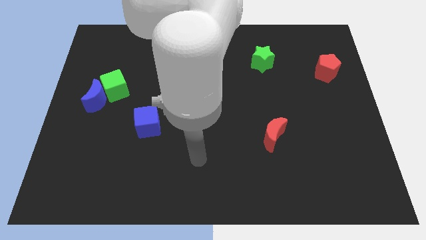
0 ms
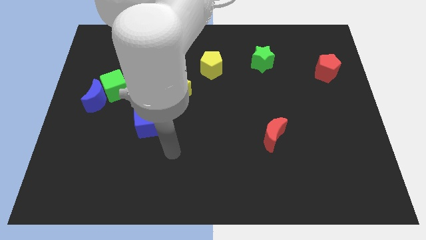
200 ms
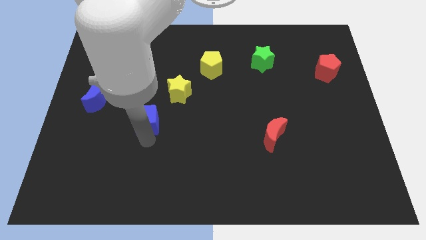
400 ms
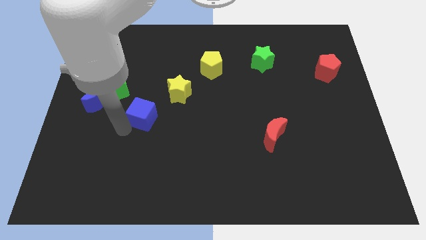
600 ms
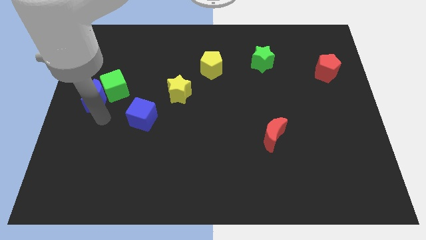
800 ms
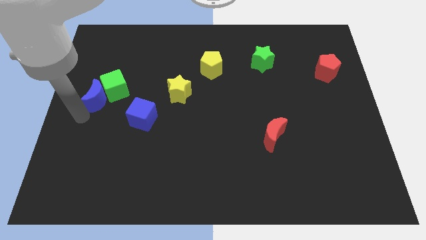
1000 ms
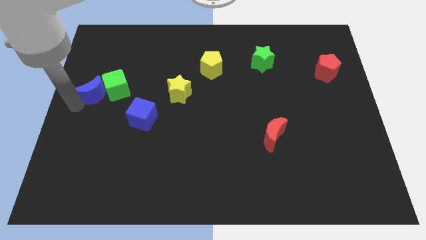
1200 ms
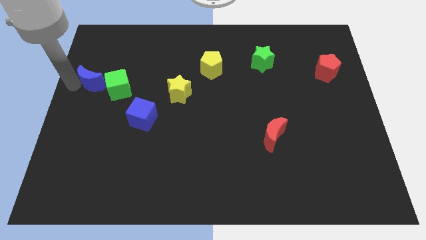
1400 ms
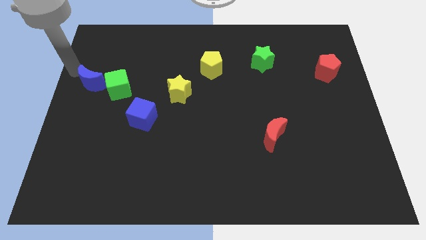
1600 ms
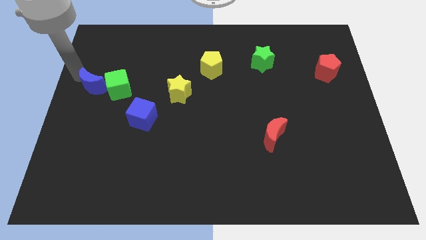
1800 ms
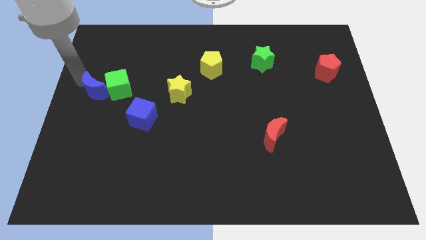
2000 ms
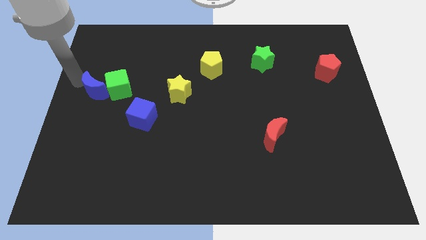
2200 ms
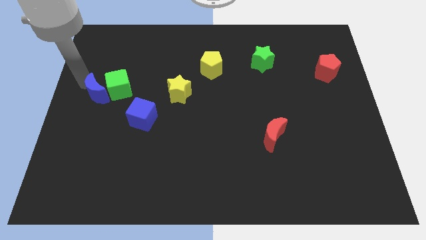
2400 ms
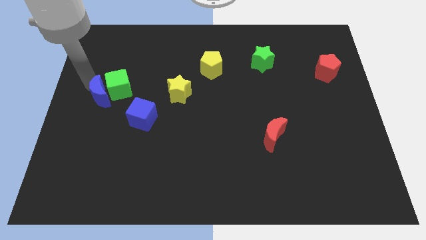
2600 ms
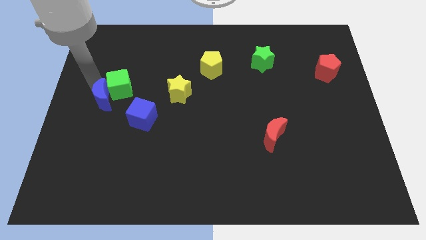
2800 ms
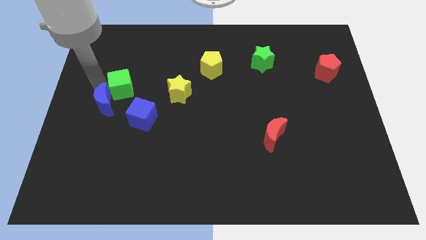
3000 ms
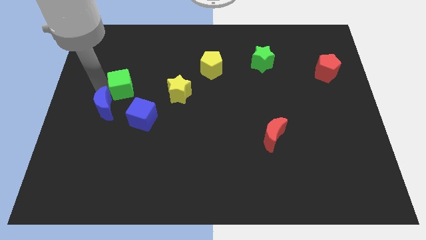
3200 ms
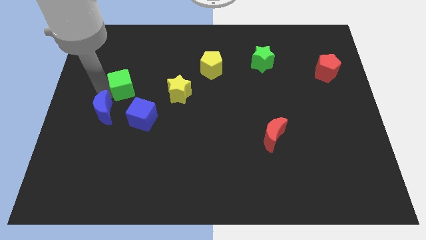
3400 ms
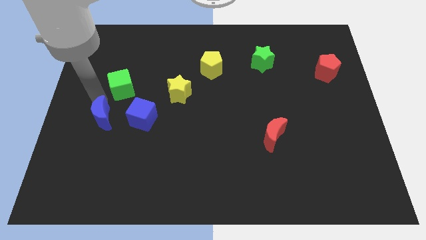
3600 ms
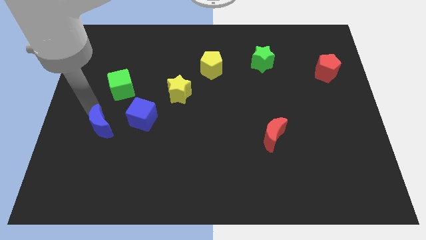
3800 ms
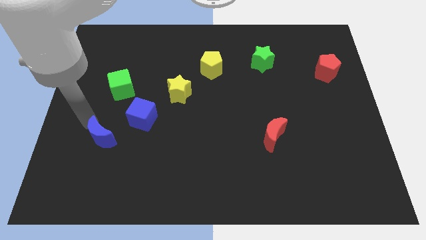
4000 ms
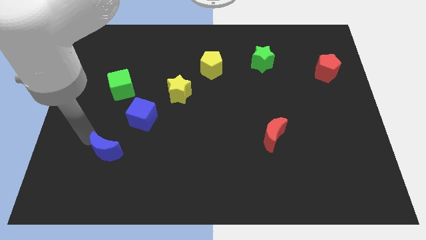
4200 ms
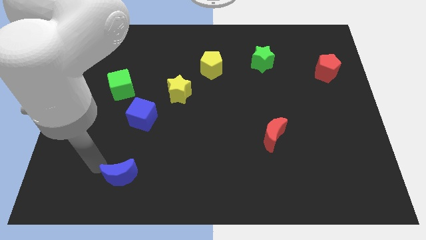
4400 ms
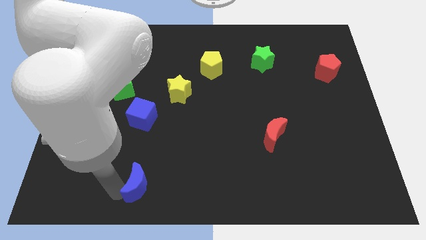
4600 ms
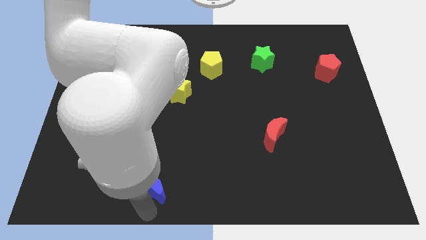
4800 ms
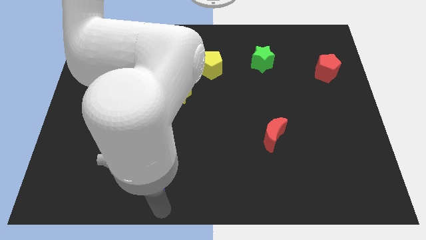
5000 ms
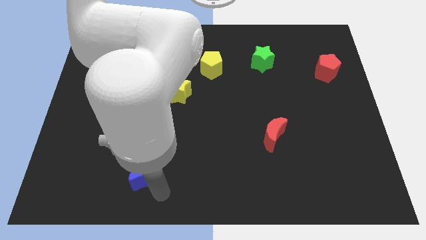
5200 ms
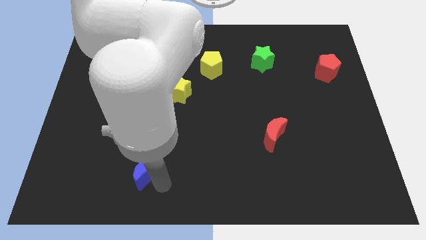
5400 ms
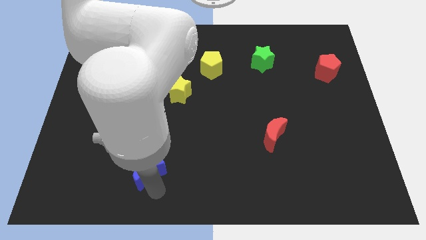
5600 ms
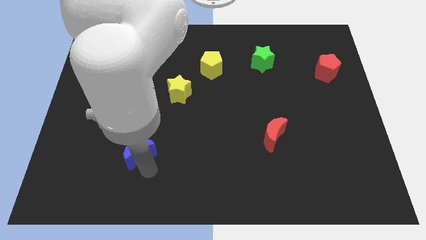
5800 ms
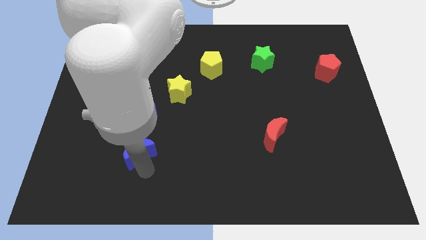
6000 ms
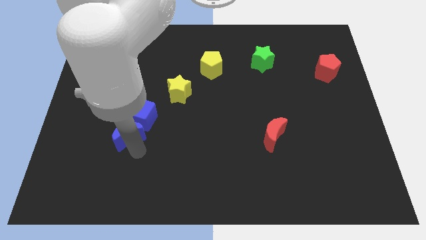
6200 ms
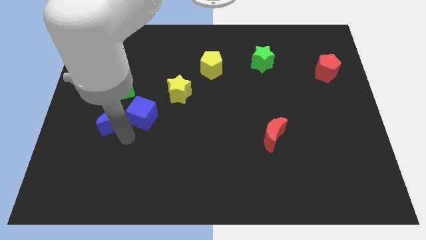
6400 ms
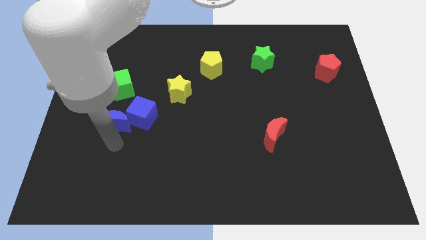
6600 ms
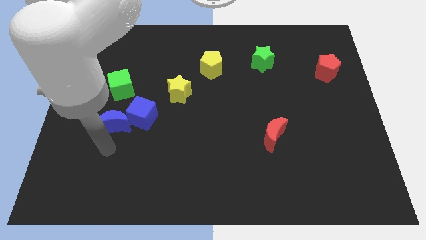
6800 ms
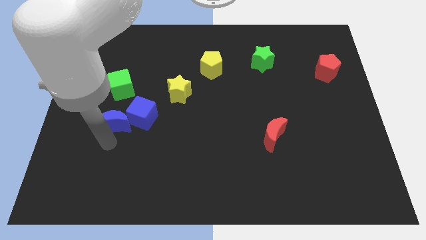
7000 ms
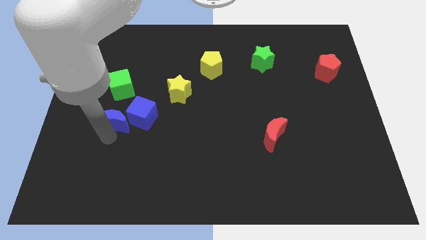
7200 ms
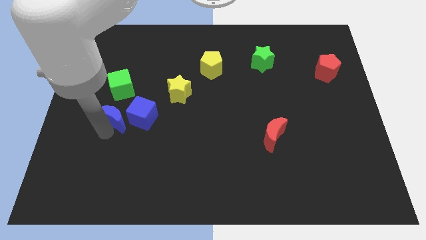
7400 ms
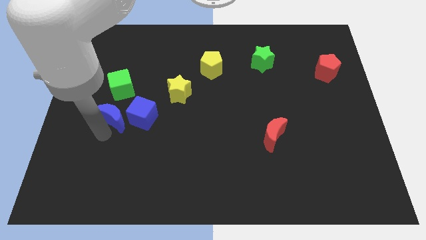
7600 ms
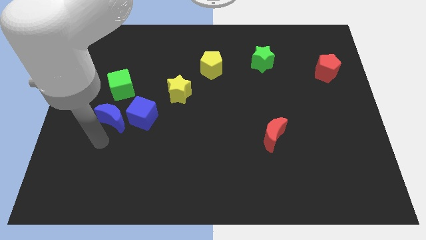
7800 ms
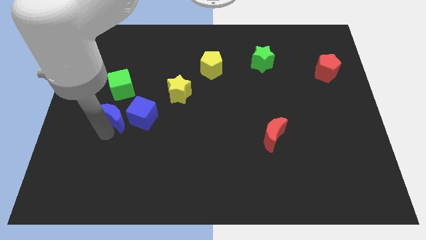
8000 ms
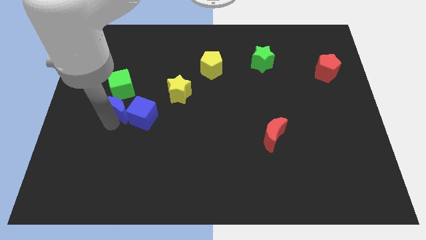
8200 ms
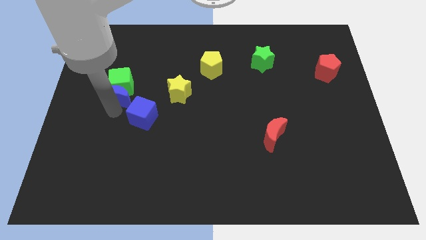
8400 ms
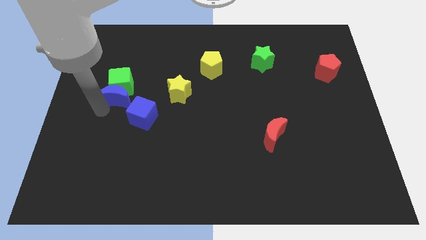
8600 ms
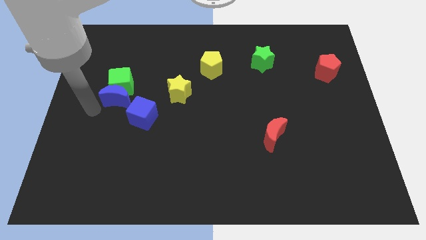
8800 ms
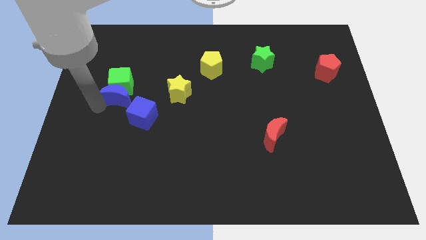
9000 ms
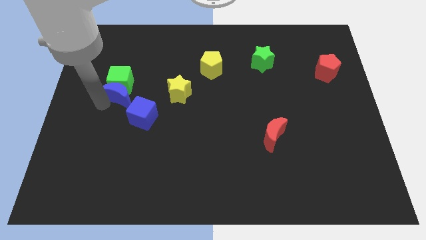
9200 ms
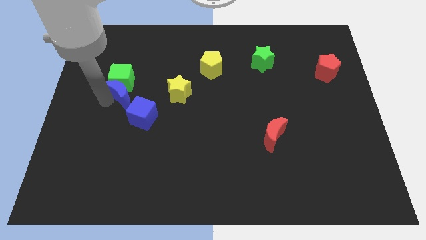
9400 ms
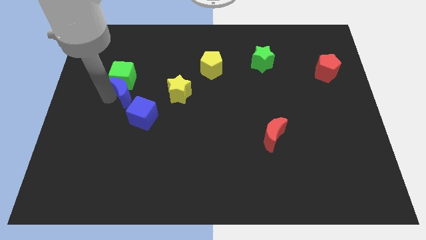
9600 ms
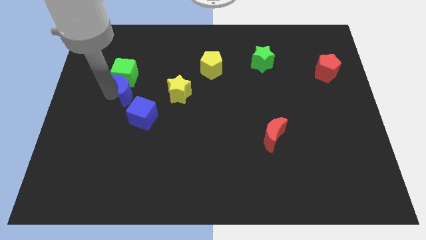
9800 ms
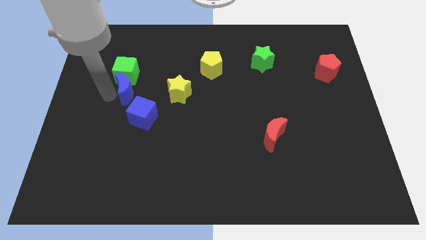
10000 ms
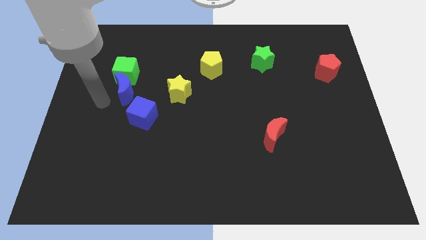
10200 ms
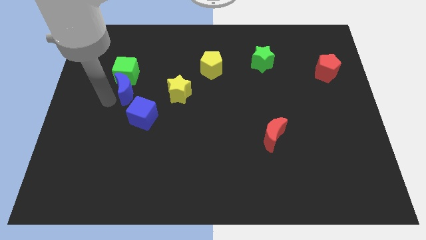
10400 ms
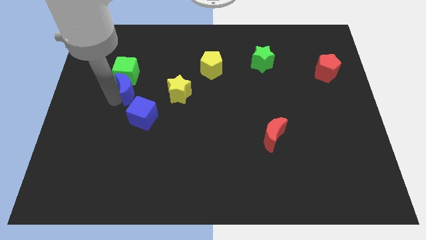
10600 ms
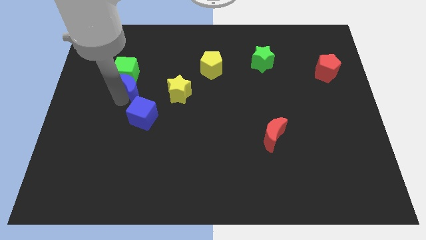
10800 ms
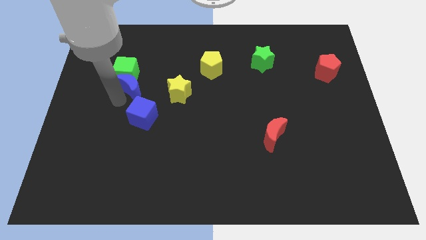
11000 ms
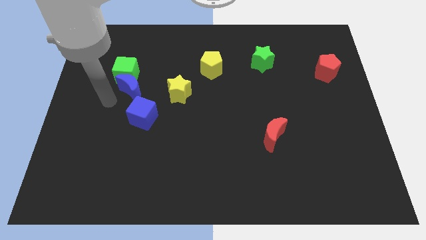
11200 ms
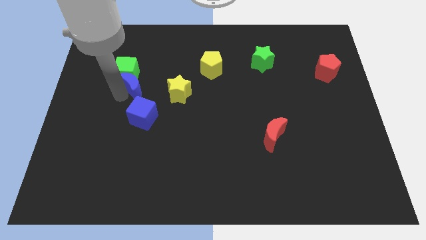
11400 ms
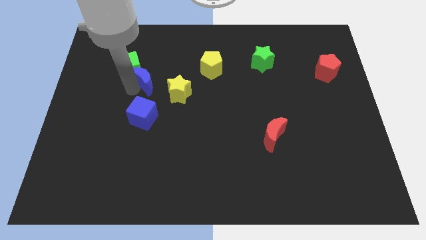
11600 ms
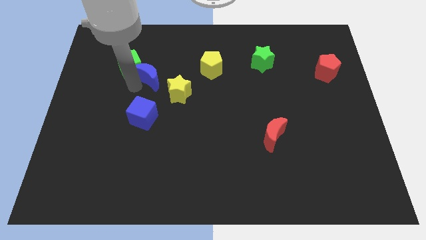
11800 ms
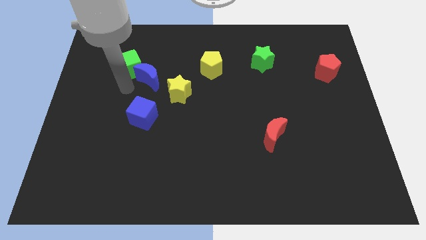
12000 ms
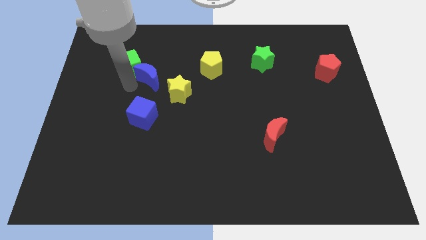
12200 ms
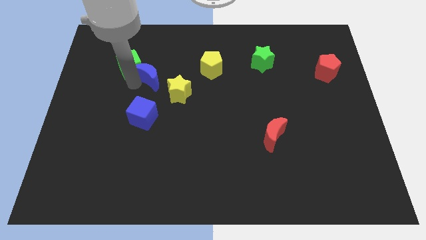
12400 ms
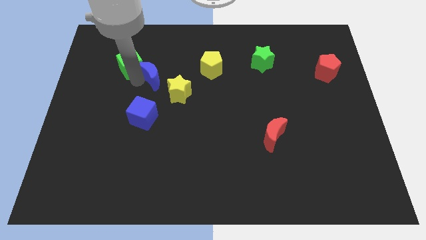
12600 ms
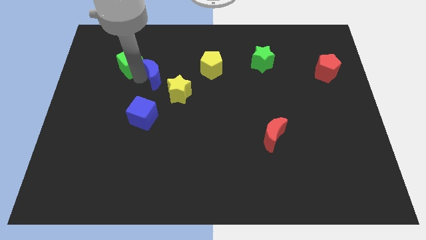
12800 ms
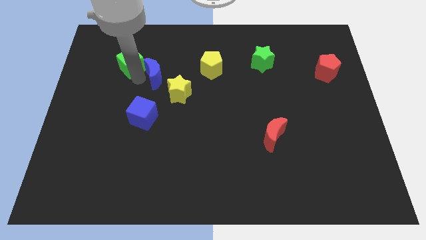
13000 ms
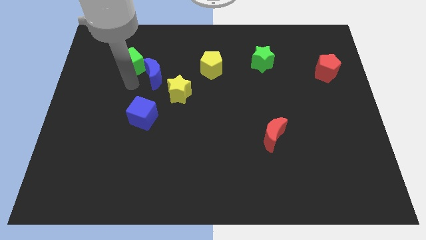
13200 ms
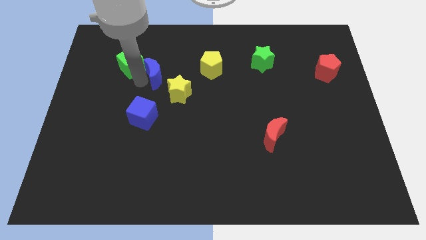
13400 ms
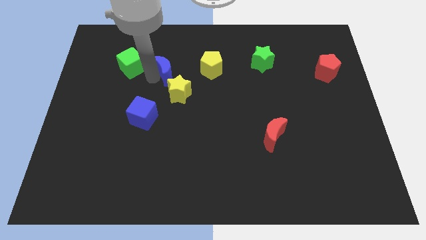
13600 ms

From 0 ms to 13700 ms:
put the blue moon to the top side of the yellow star
